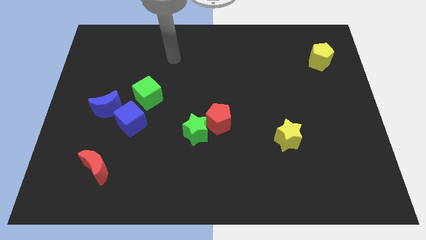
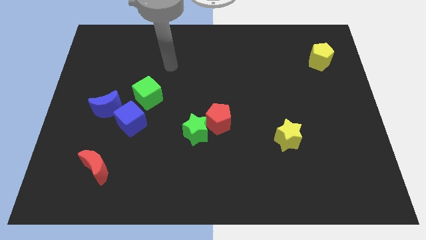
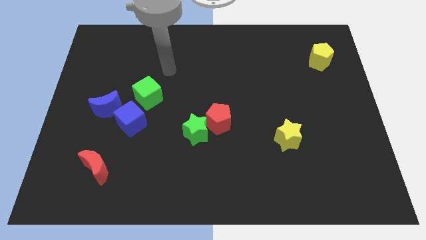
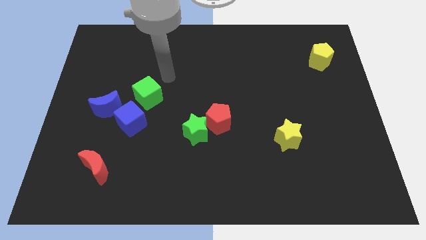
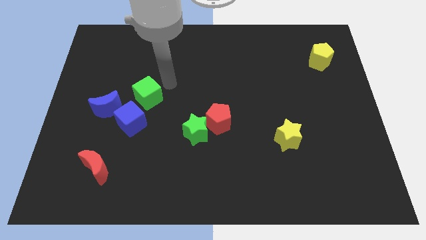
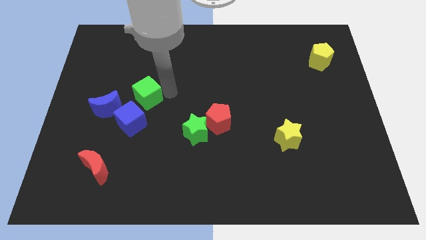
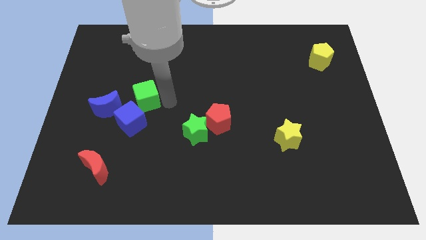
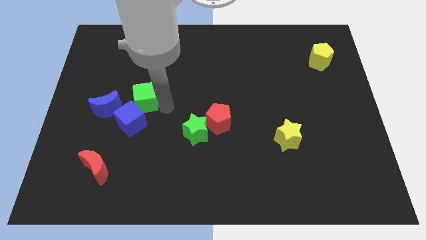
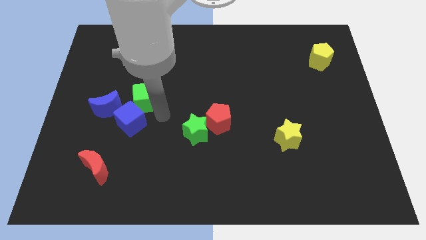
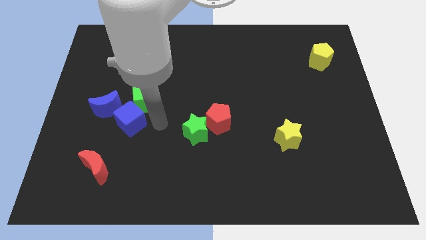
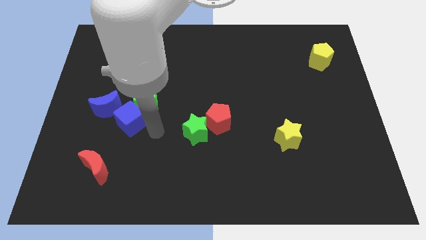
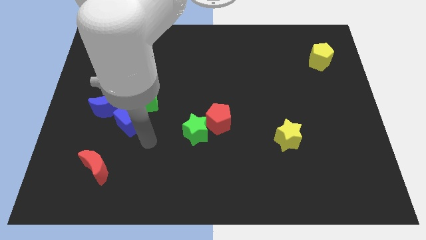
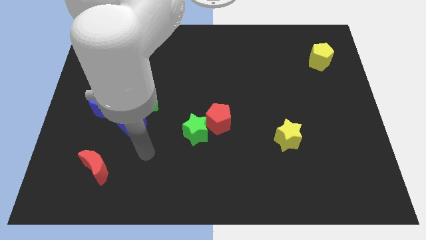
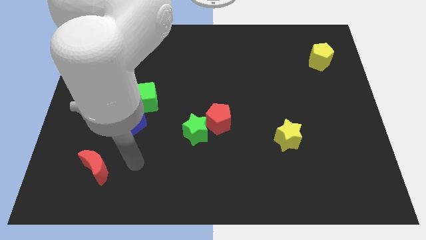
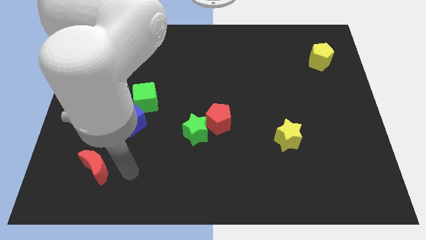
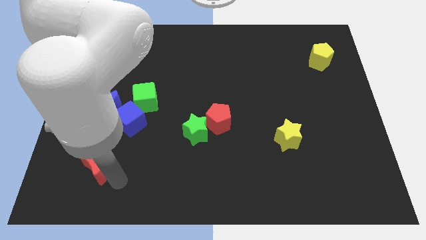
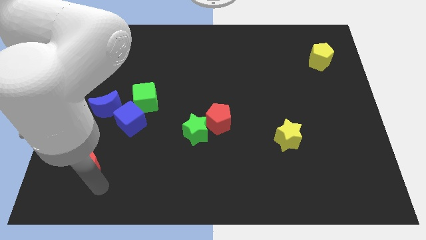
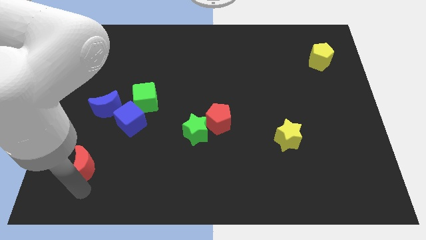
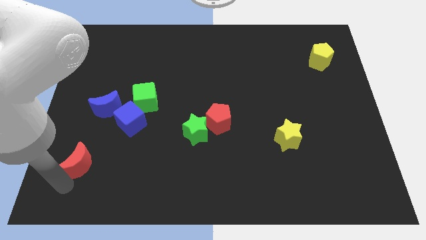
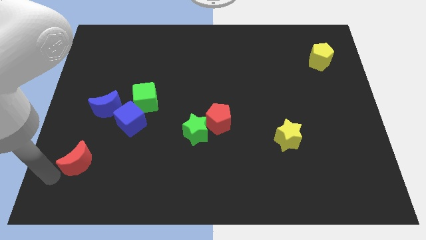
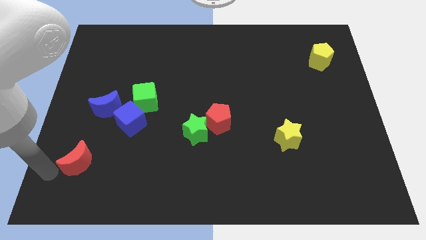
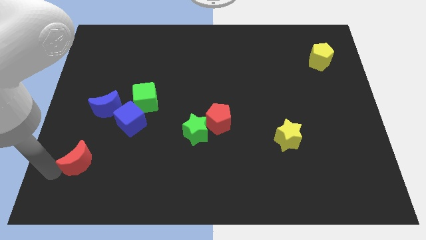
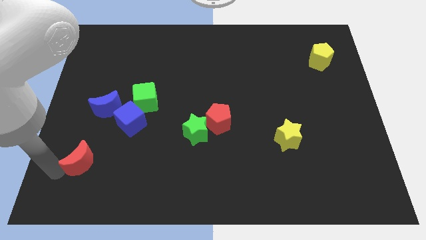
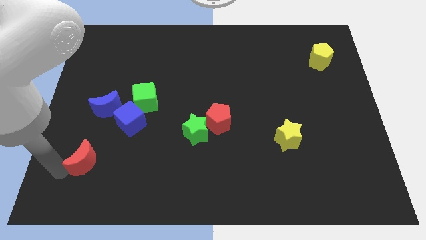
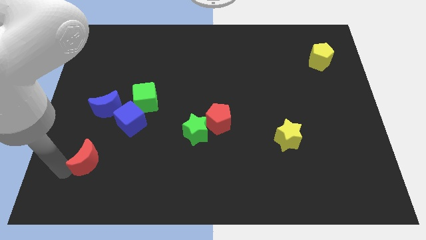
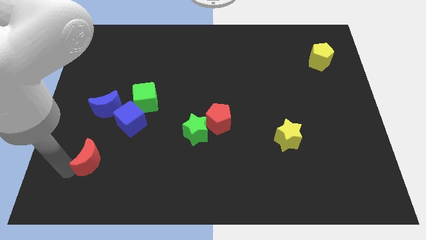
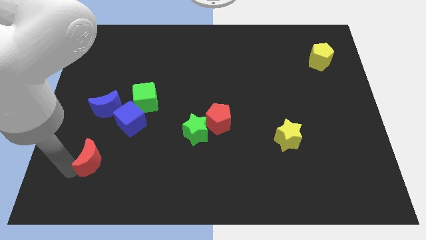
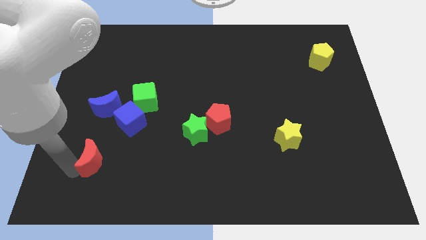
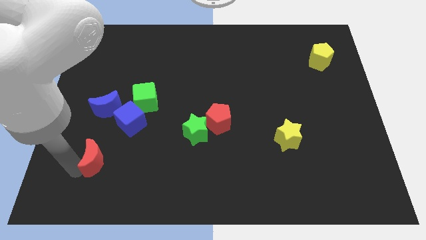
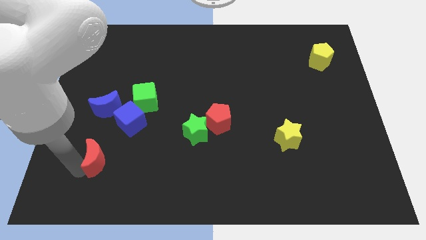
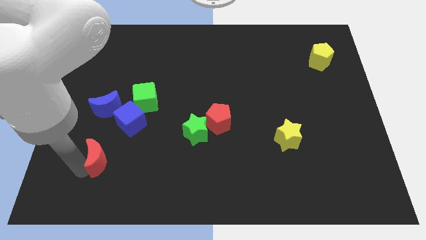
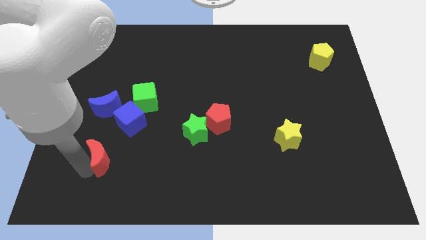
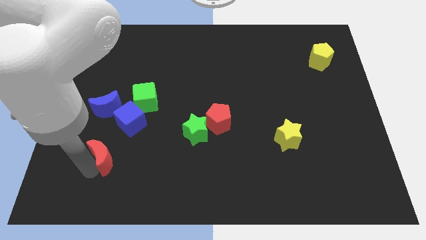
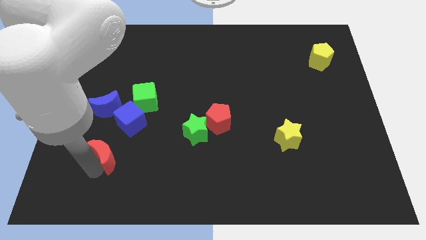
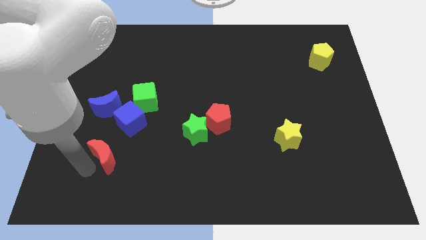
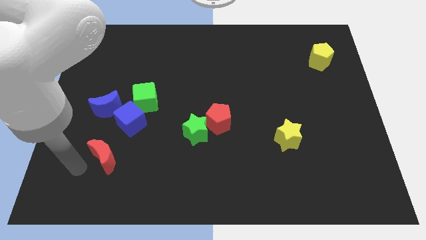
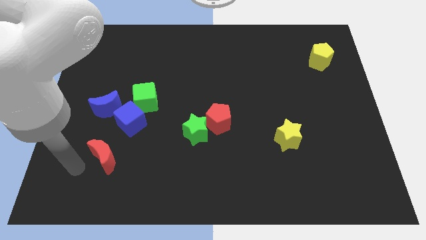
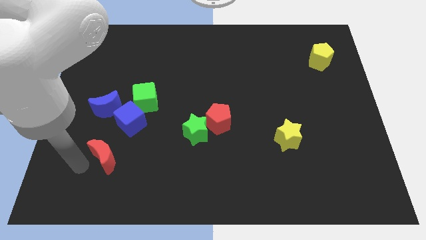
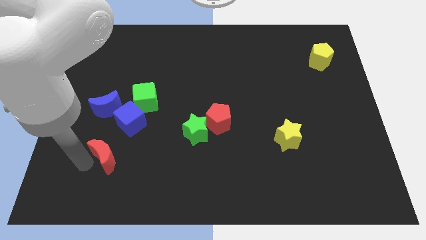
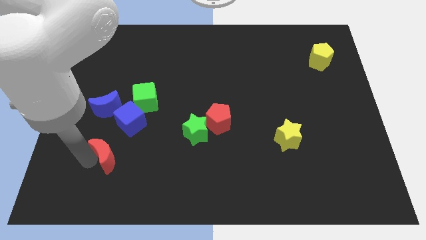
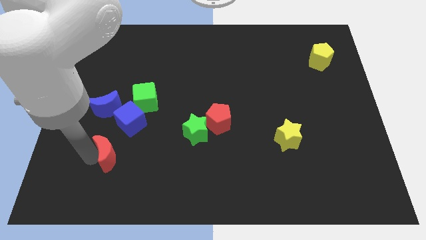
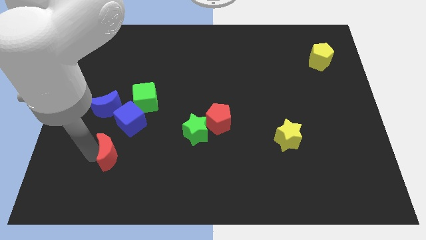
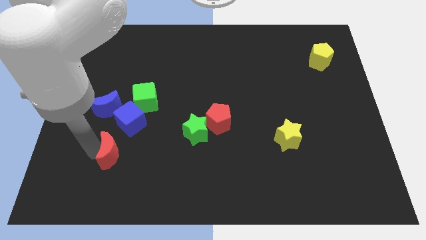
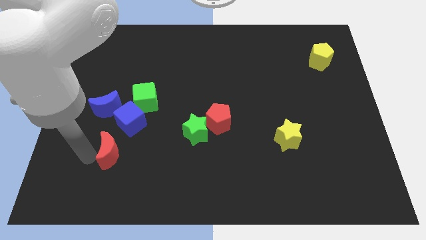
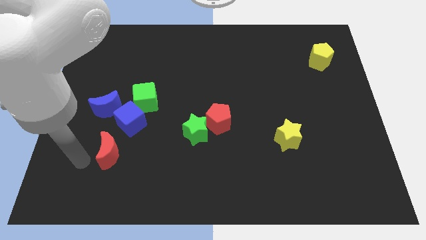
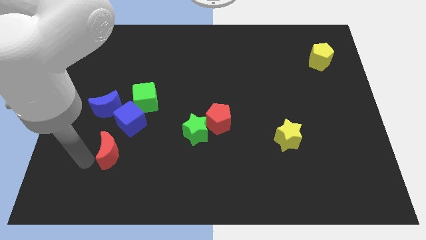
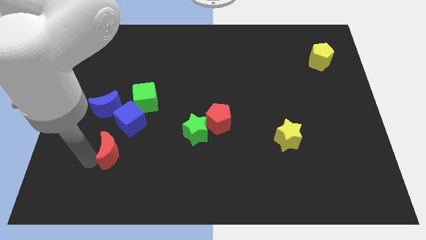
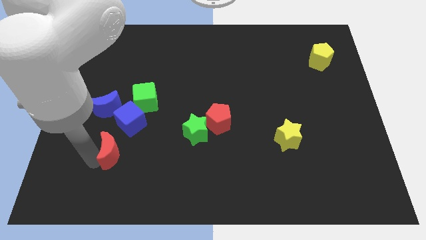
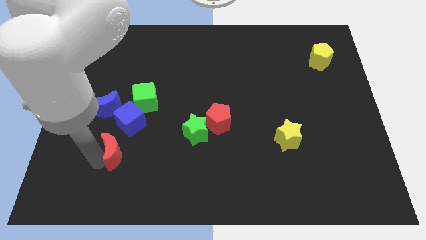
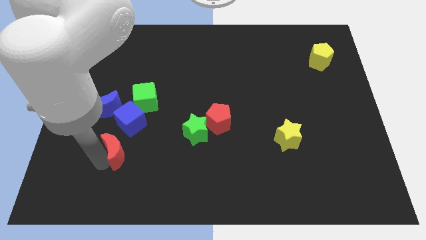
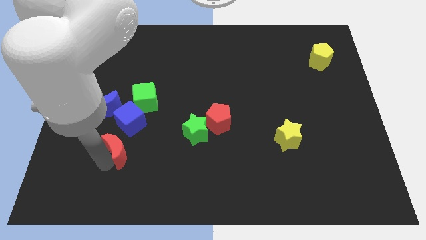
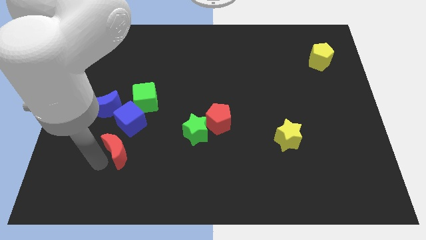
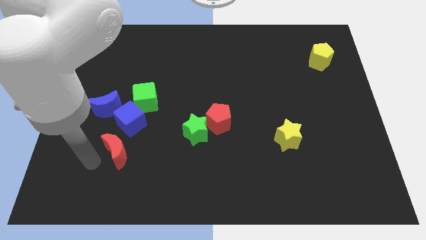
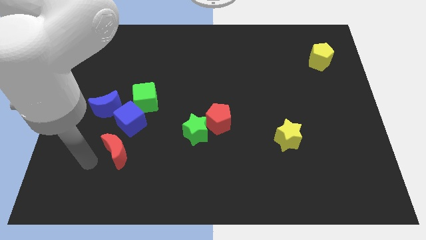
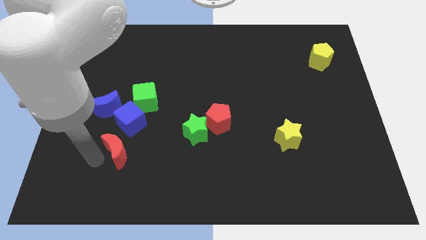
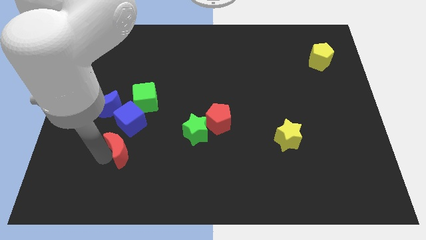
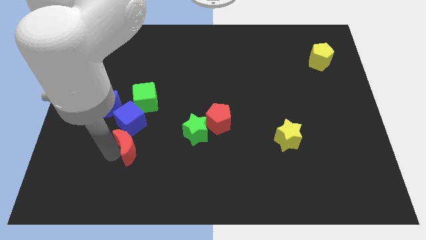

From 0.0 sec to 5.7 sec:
push the red moon to the bottom right of the blue cube

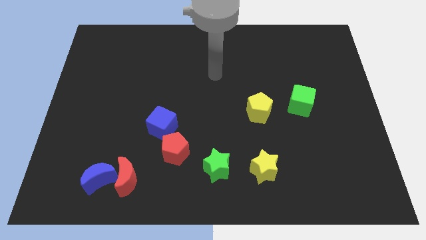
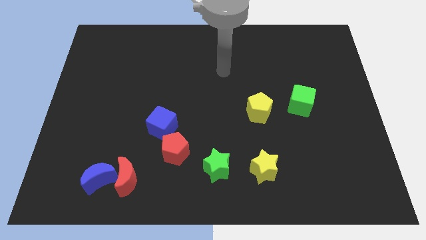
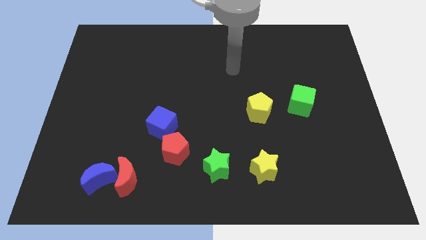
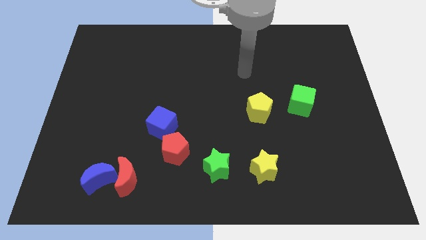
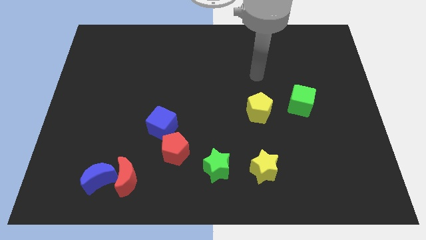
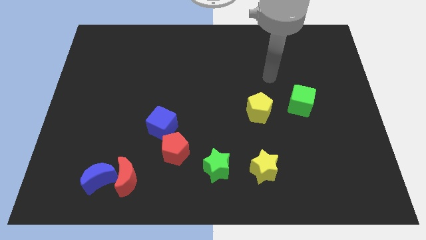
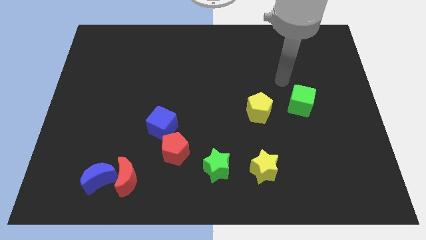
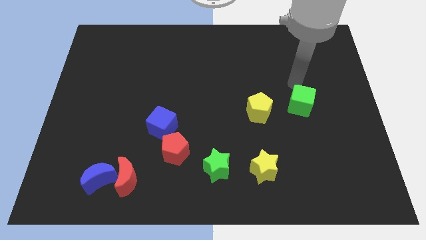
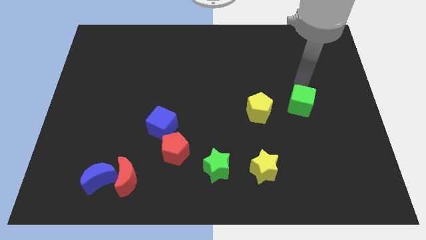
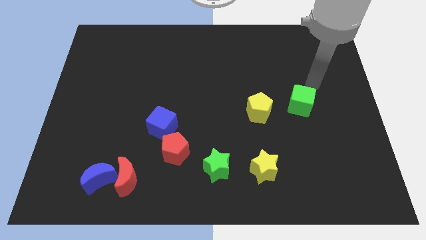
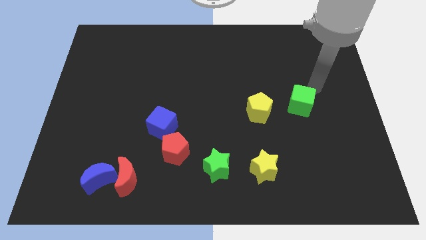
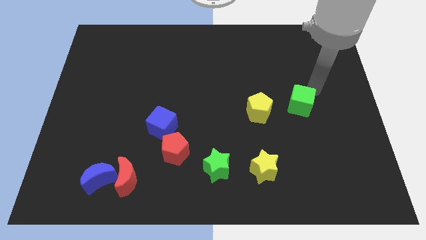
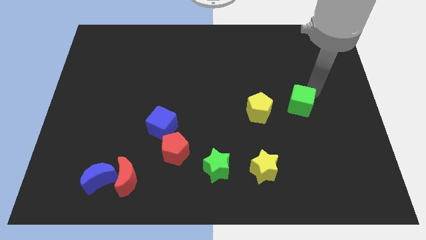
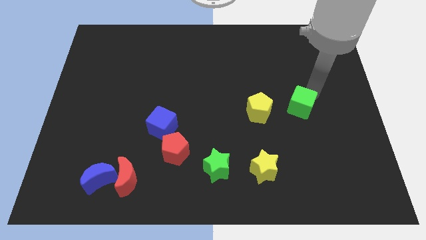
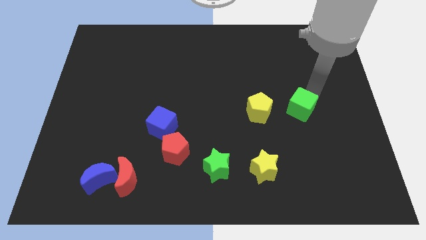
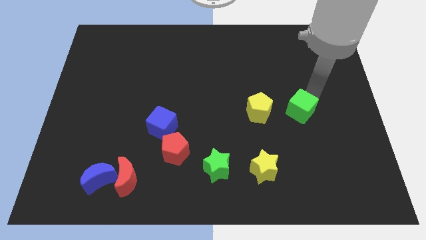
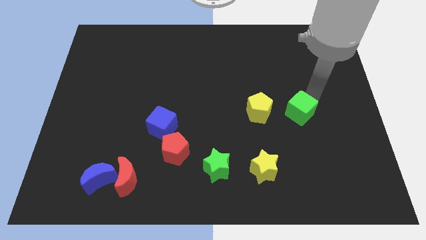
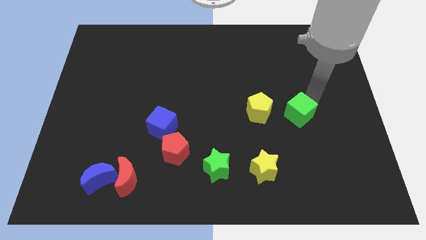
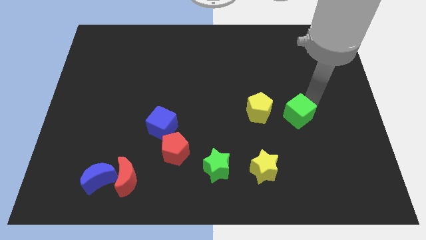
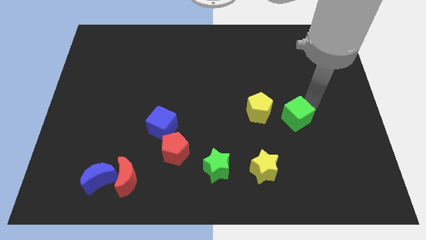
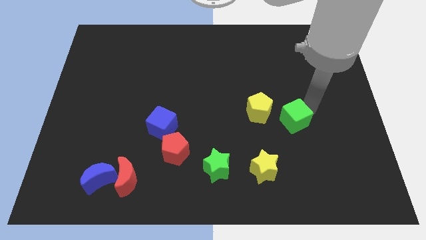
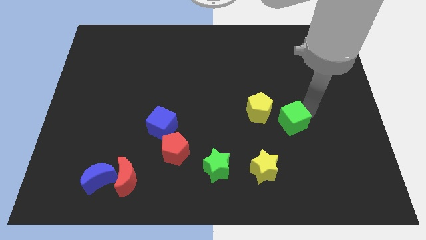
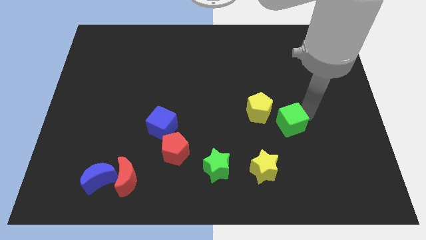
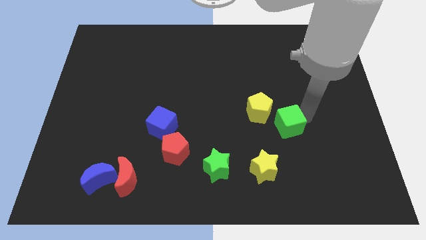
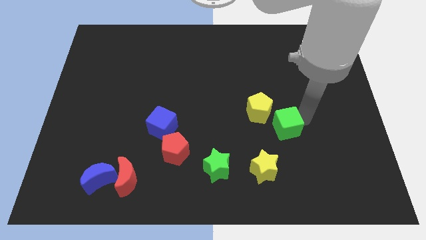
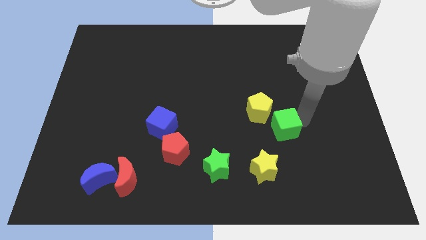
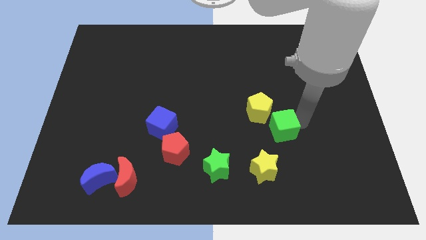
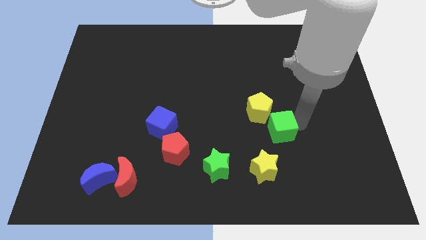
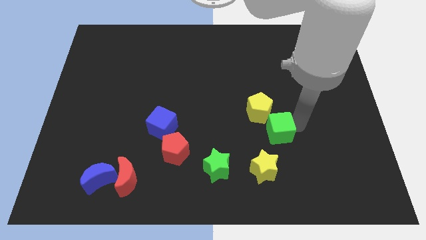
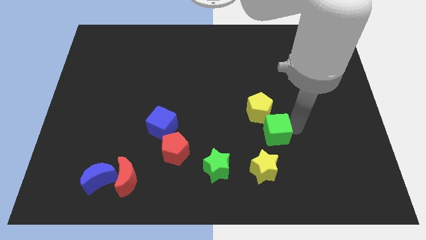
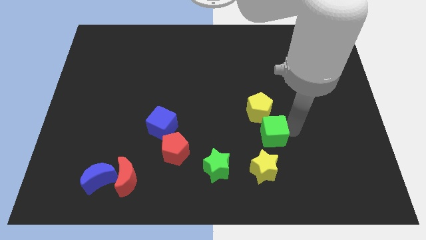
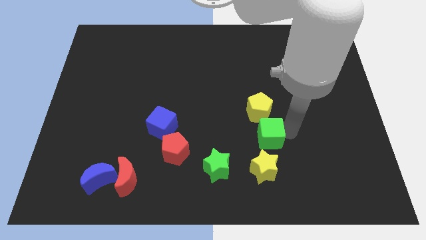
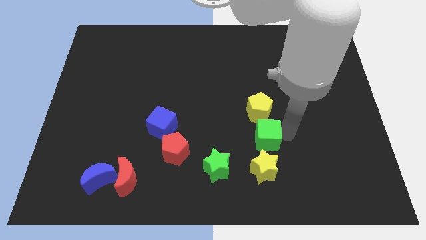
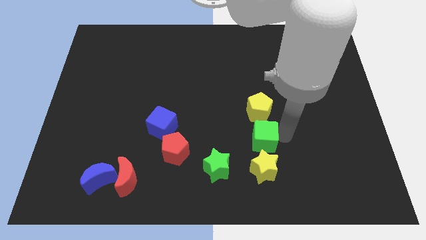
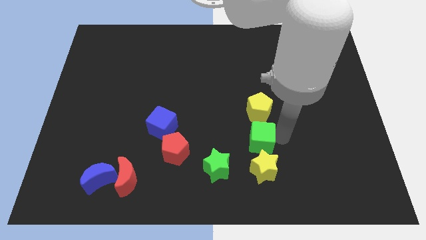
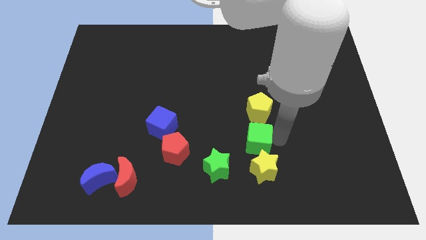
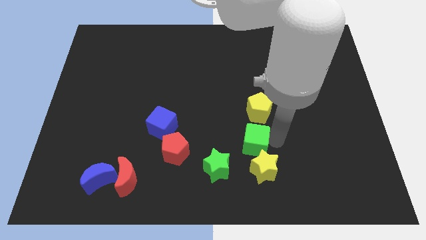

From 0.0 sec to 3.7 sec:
push the green cube diagonally down and to the left of the yellow pentagon
